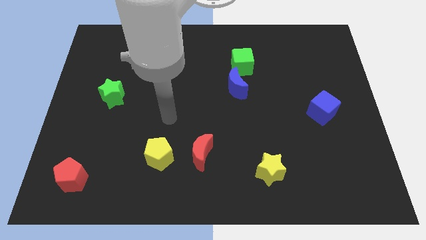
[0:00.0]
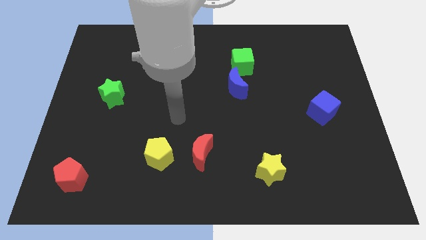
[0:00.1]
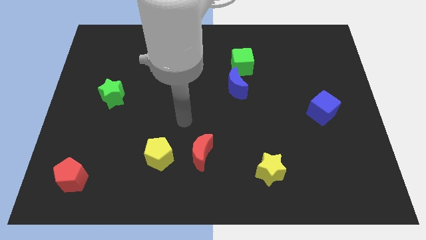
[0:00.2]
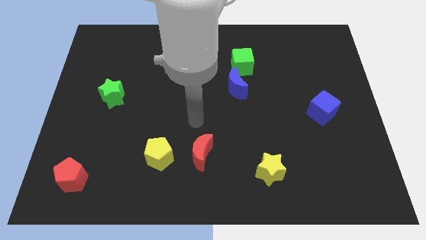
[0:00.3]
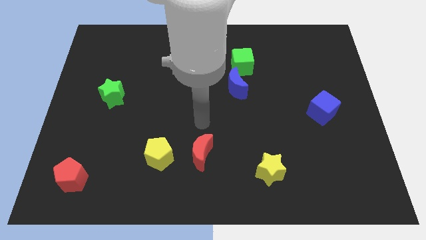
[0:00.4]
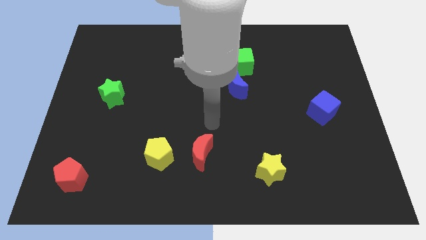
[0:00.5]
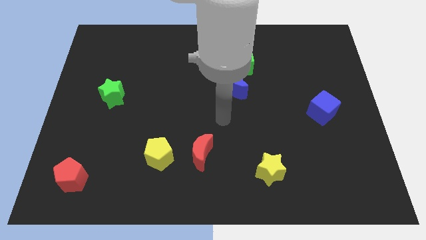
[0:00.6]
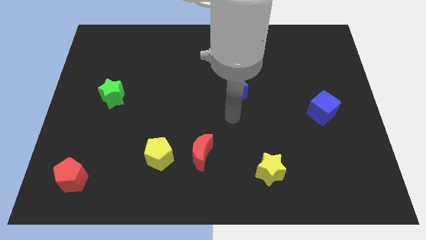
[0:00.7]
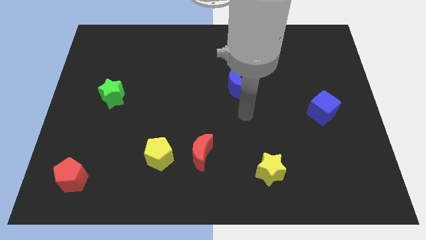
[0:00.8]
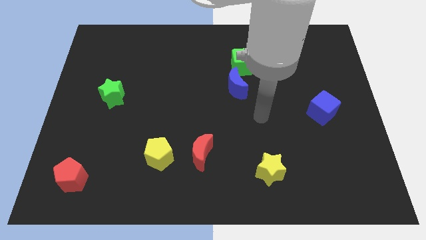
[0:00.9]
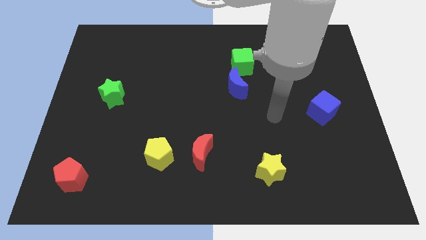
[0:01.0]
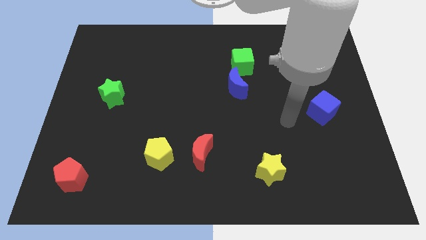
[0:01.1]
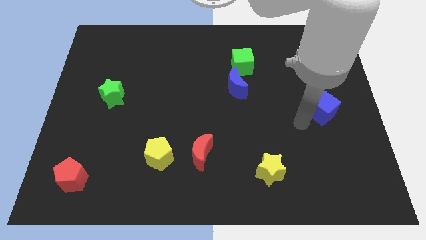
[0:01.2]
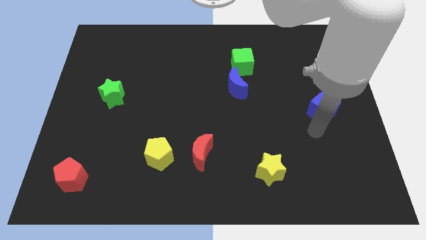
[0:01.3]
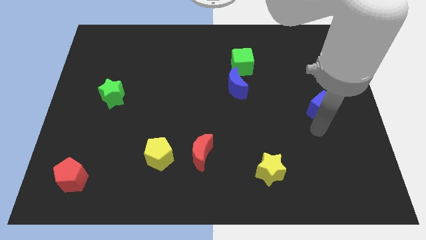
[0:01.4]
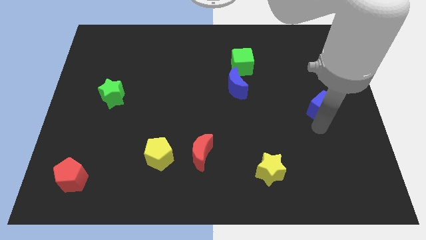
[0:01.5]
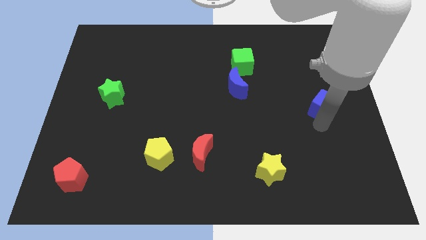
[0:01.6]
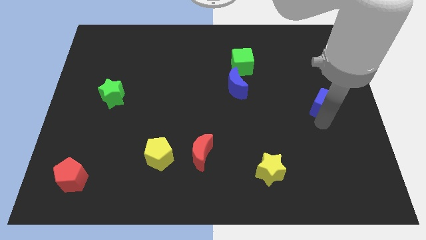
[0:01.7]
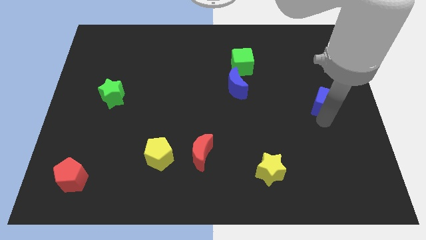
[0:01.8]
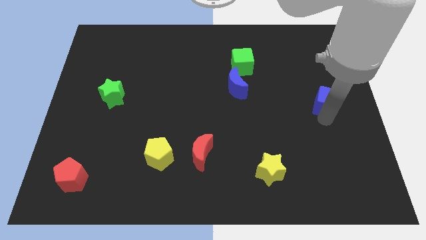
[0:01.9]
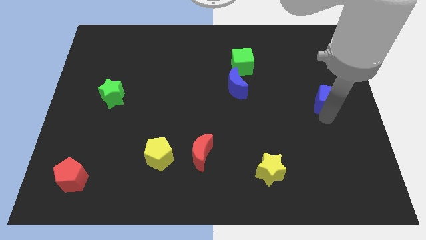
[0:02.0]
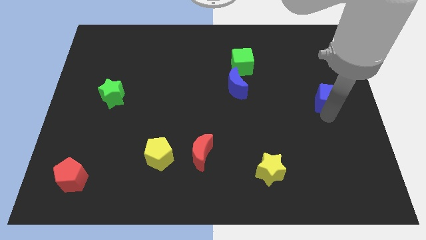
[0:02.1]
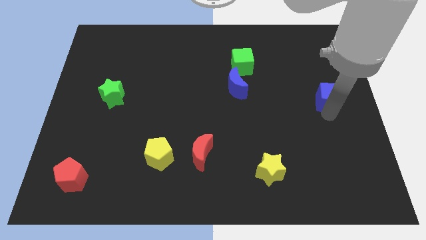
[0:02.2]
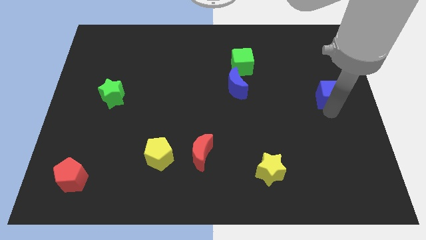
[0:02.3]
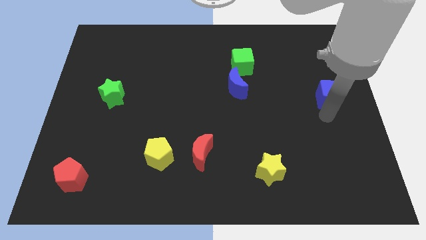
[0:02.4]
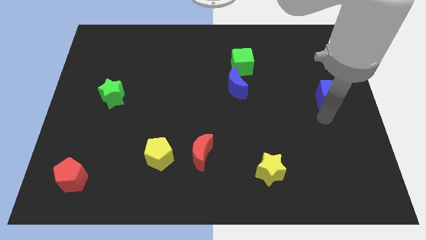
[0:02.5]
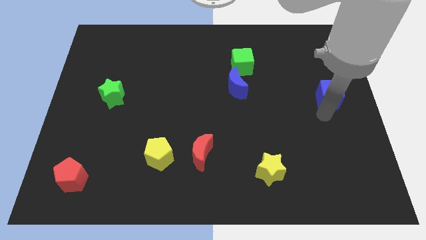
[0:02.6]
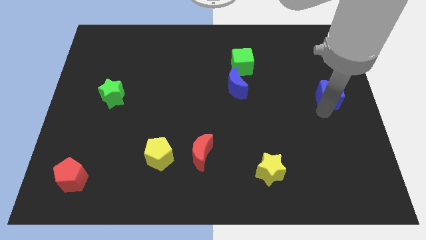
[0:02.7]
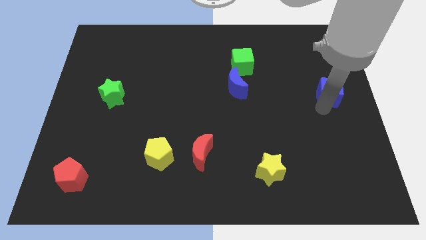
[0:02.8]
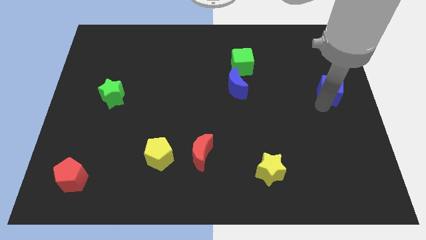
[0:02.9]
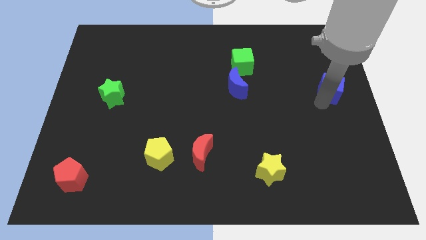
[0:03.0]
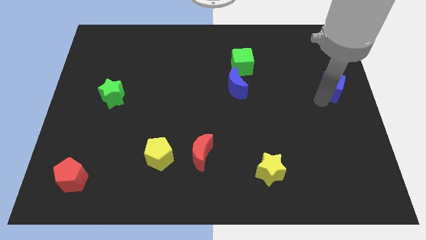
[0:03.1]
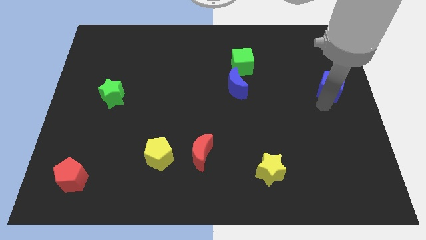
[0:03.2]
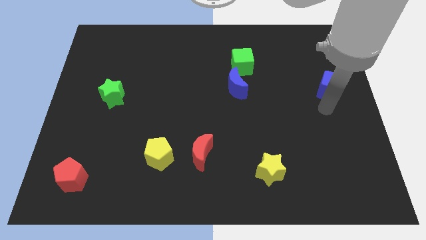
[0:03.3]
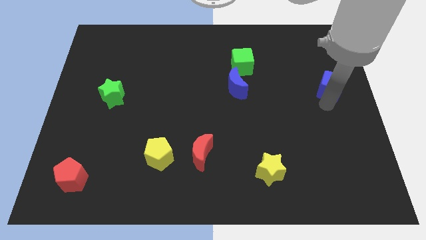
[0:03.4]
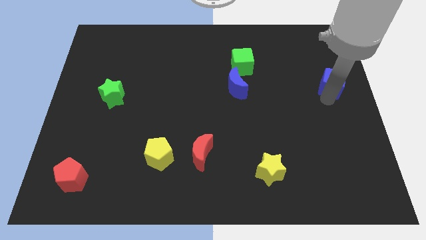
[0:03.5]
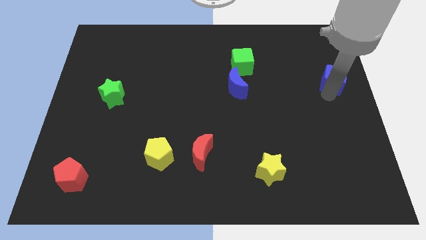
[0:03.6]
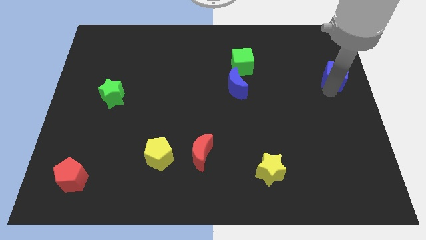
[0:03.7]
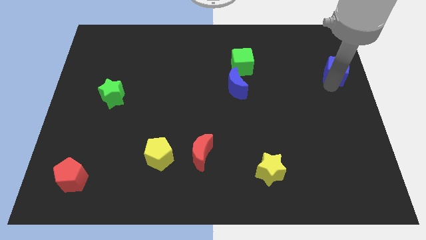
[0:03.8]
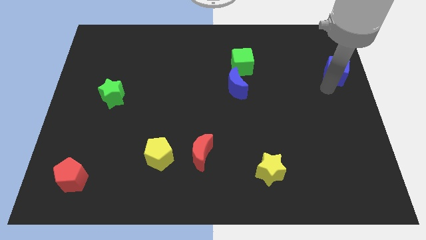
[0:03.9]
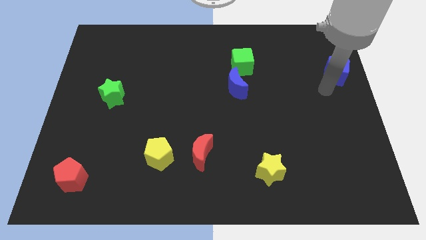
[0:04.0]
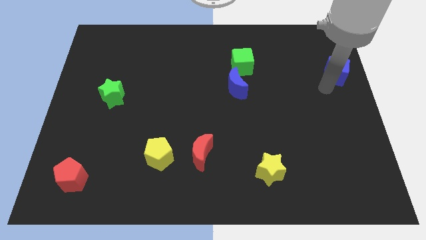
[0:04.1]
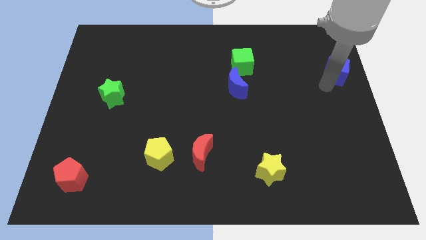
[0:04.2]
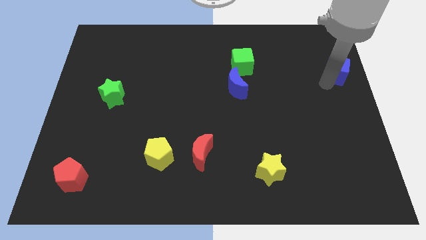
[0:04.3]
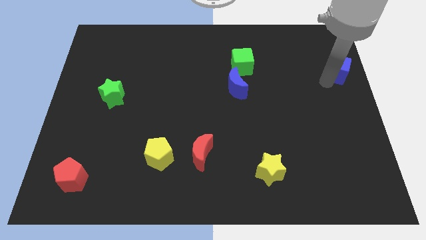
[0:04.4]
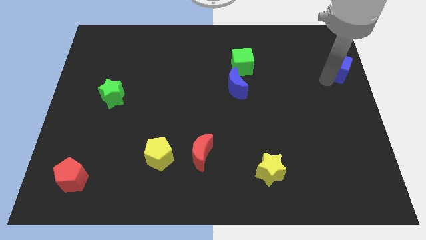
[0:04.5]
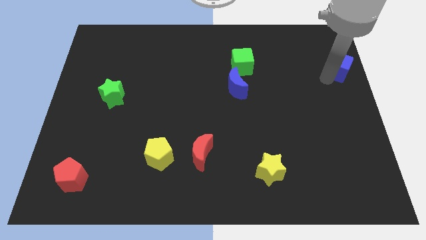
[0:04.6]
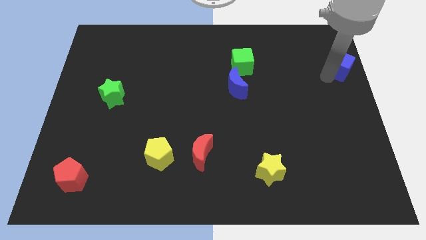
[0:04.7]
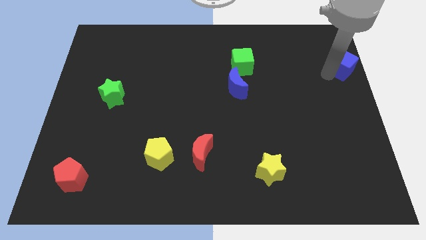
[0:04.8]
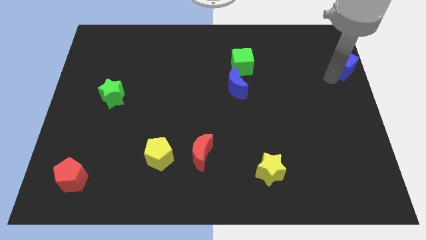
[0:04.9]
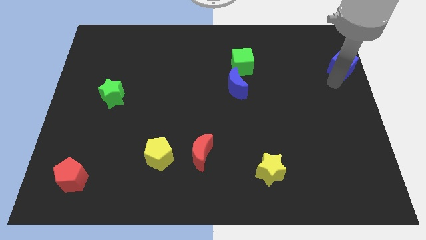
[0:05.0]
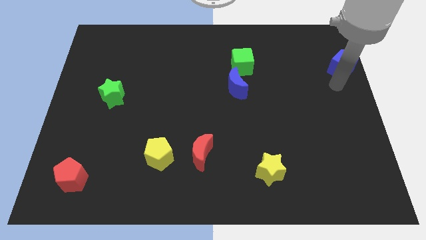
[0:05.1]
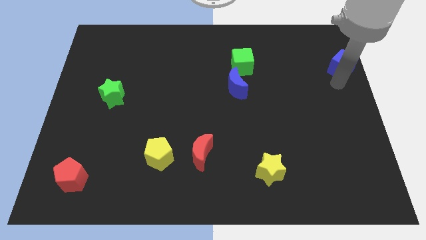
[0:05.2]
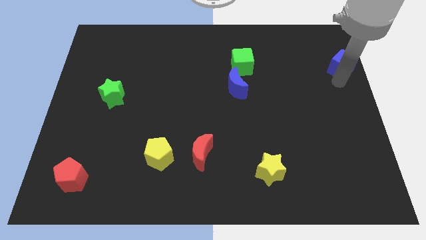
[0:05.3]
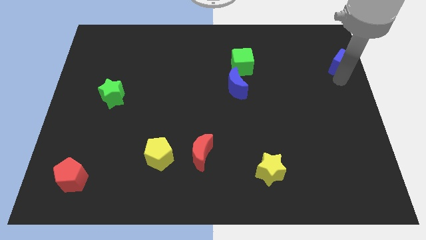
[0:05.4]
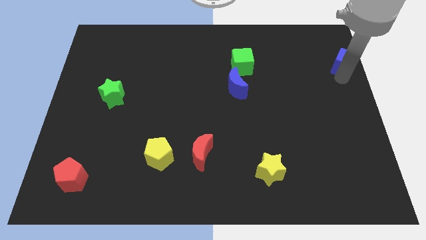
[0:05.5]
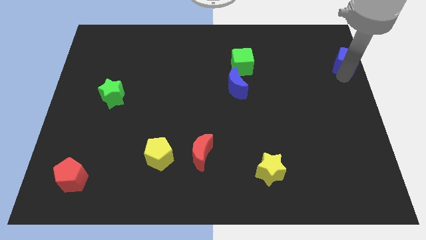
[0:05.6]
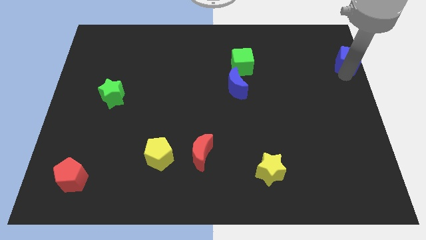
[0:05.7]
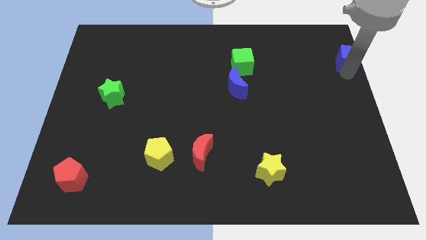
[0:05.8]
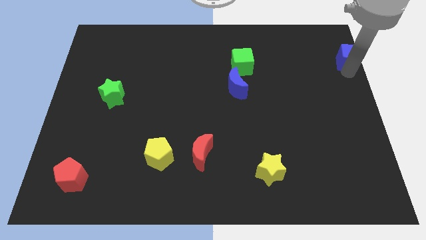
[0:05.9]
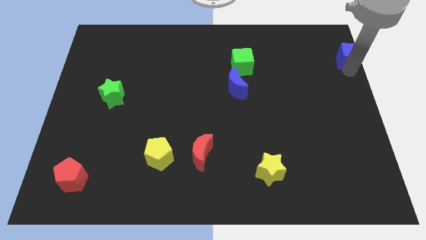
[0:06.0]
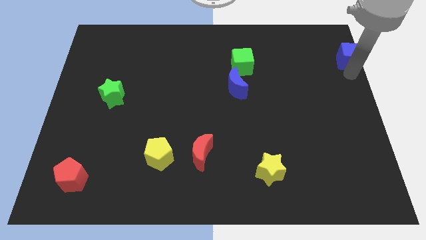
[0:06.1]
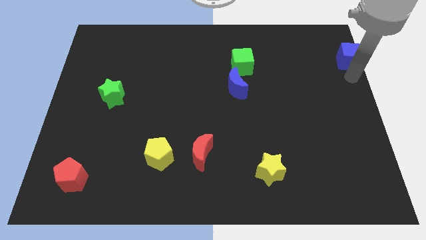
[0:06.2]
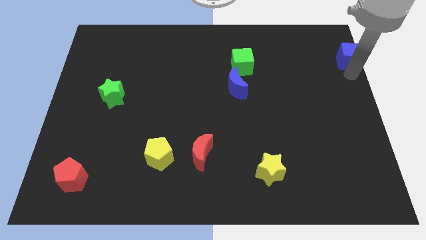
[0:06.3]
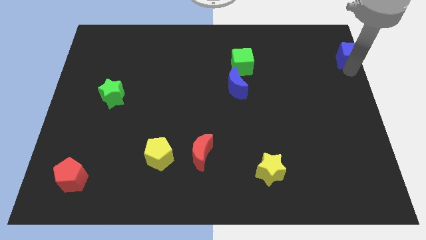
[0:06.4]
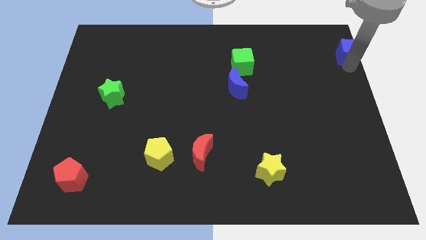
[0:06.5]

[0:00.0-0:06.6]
slide the blue cube to the top right corner
